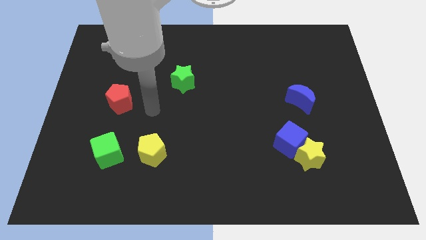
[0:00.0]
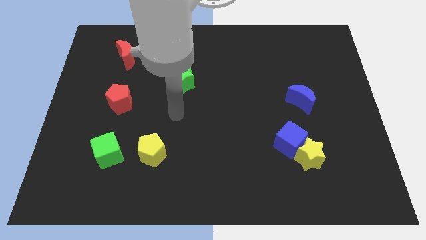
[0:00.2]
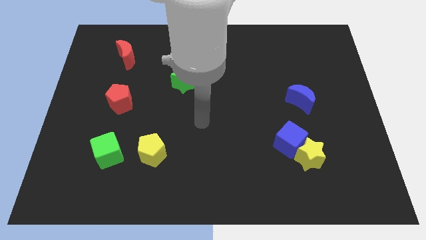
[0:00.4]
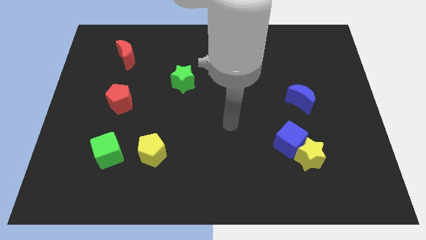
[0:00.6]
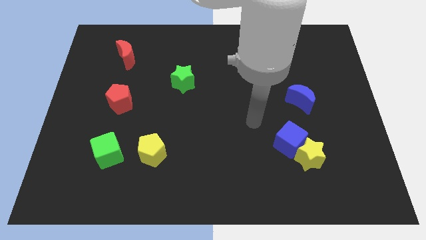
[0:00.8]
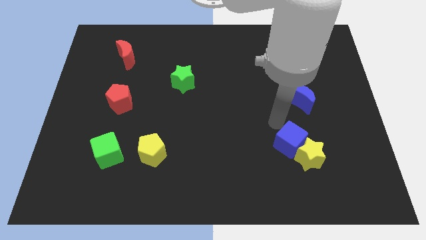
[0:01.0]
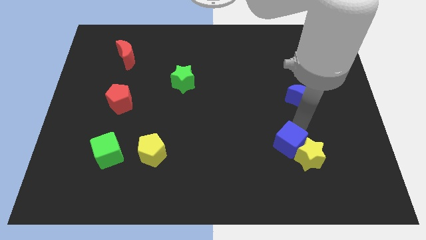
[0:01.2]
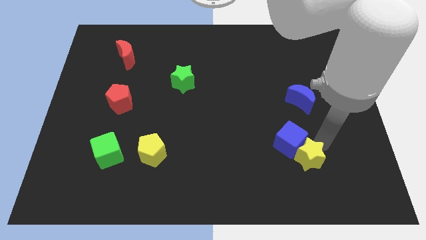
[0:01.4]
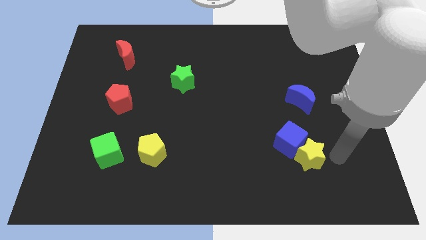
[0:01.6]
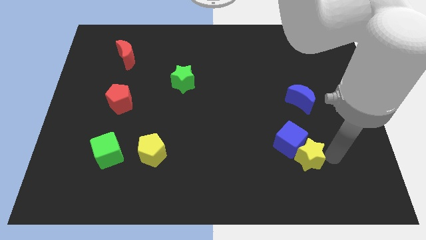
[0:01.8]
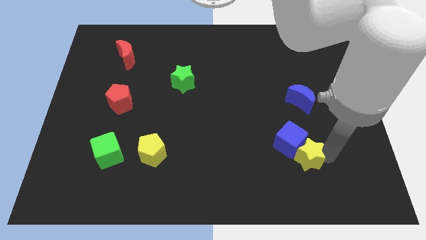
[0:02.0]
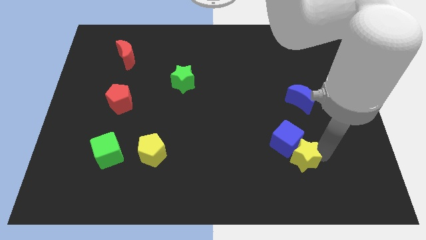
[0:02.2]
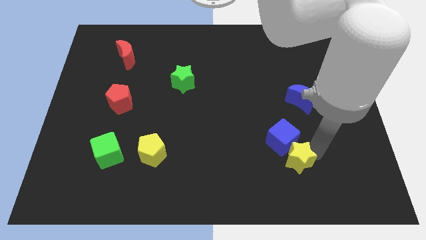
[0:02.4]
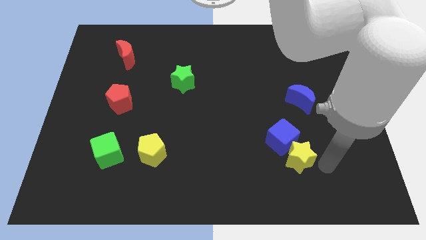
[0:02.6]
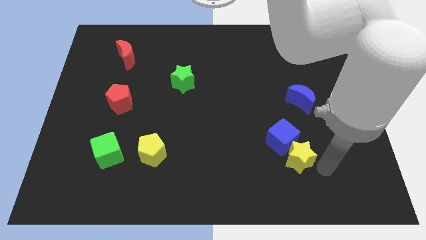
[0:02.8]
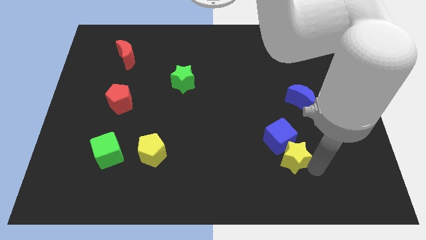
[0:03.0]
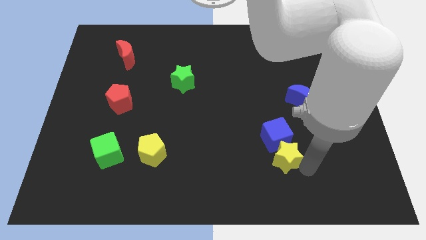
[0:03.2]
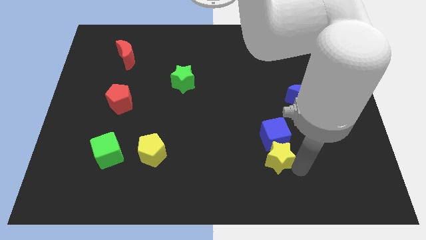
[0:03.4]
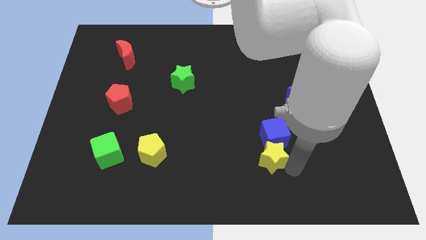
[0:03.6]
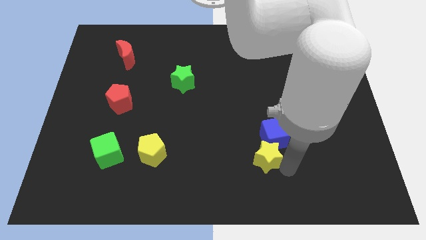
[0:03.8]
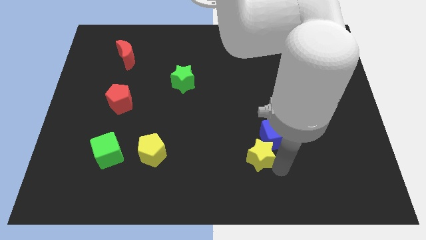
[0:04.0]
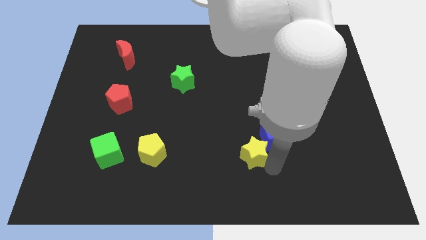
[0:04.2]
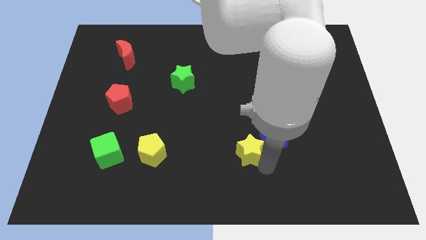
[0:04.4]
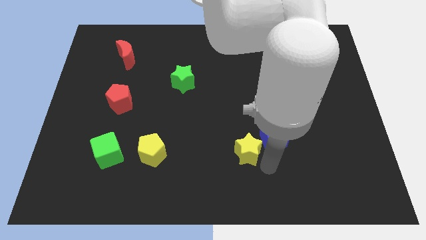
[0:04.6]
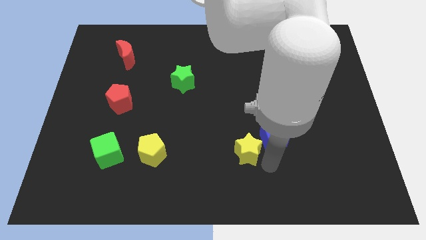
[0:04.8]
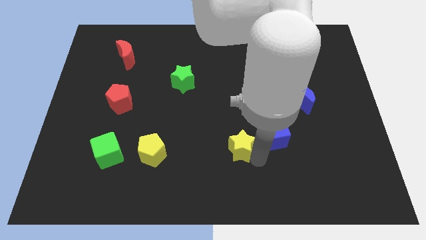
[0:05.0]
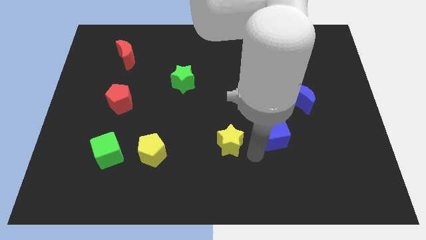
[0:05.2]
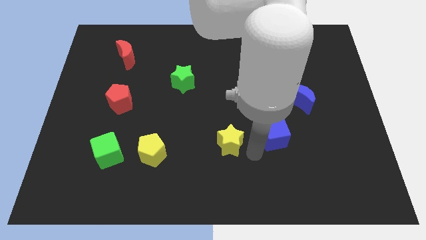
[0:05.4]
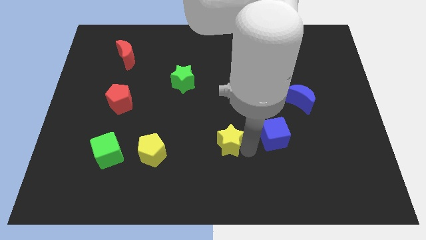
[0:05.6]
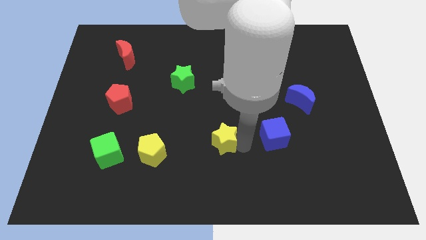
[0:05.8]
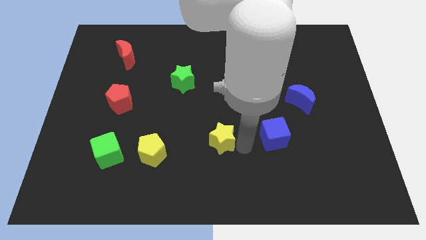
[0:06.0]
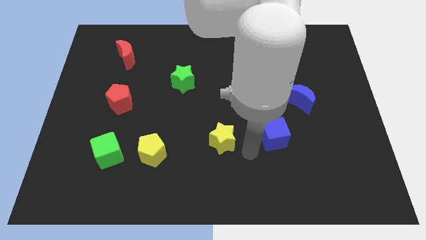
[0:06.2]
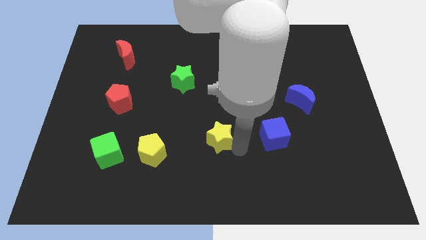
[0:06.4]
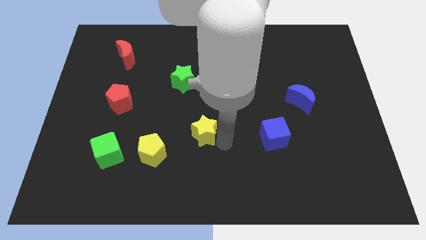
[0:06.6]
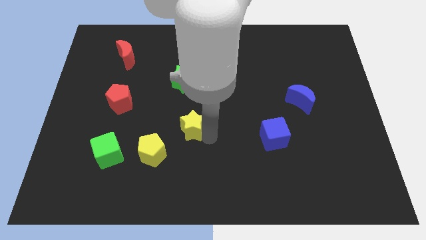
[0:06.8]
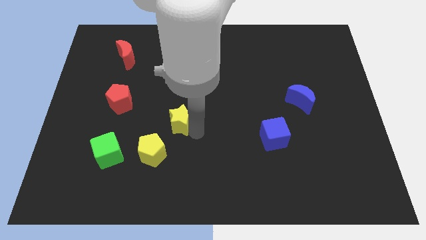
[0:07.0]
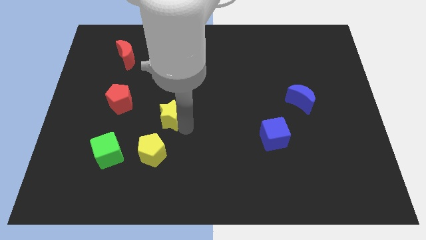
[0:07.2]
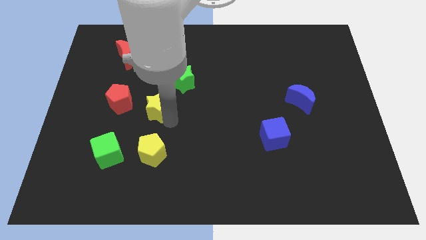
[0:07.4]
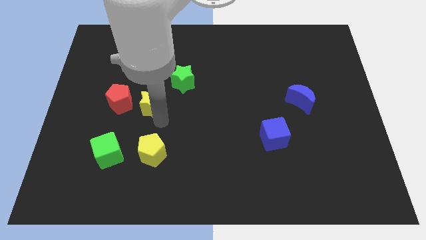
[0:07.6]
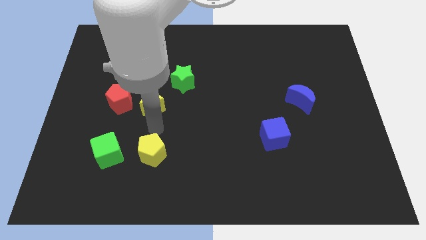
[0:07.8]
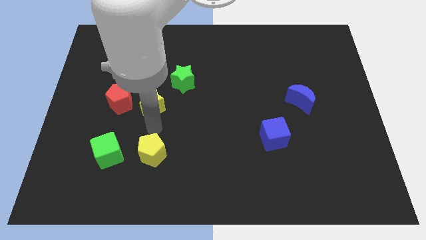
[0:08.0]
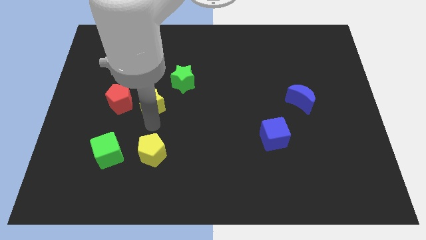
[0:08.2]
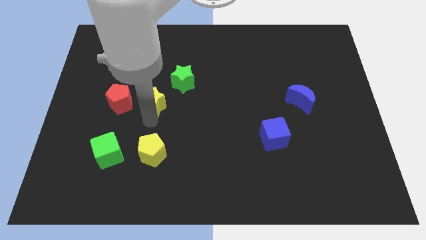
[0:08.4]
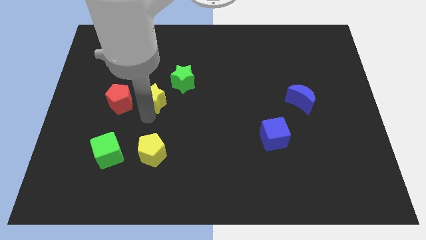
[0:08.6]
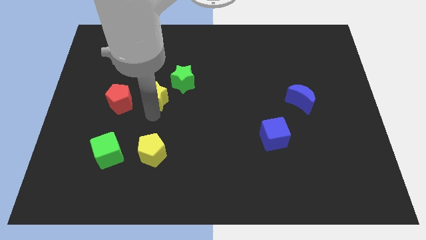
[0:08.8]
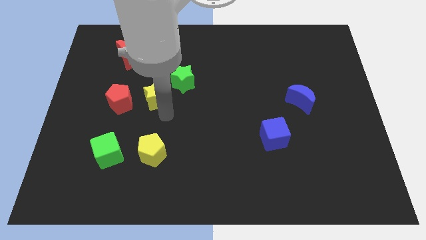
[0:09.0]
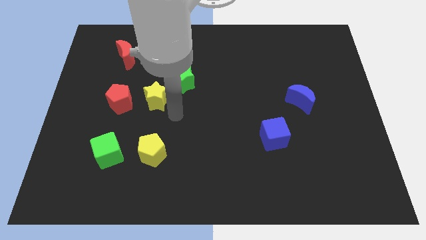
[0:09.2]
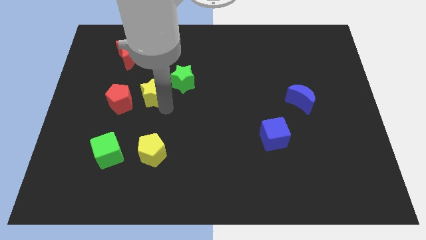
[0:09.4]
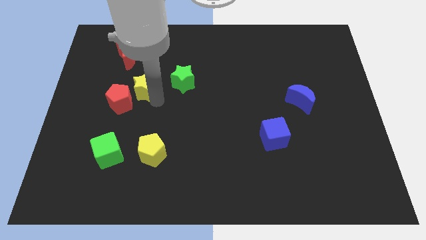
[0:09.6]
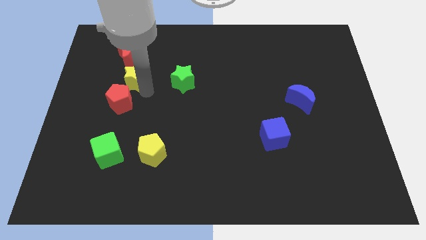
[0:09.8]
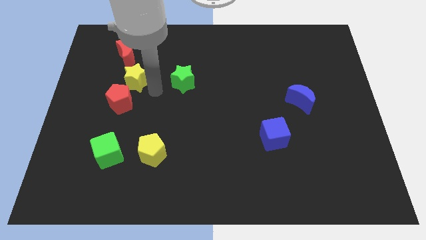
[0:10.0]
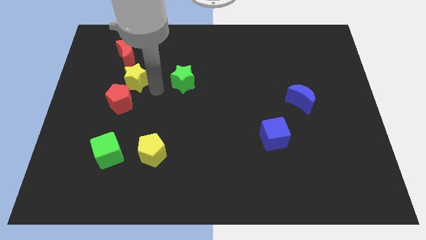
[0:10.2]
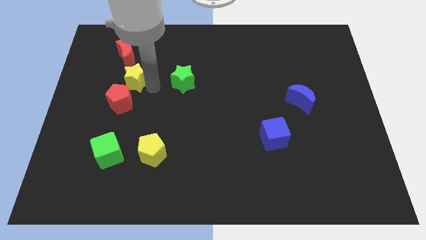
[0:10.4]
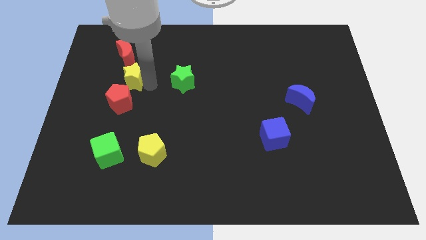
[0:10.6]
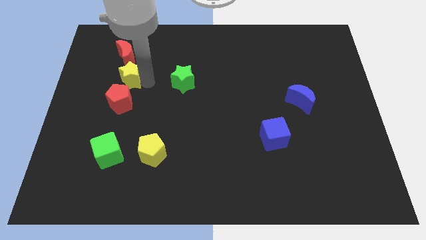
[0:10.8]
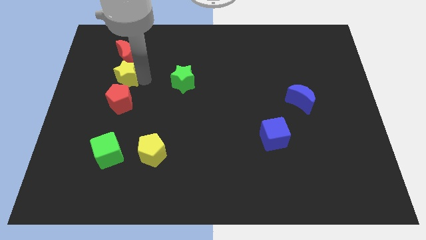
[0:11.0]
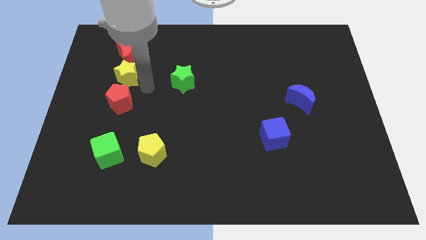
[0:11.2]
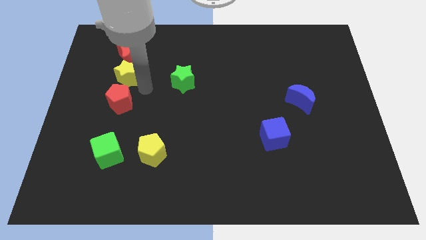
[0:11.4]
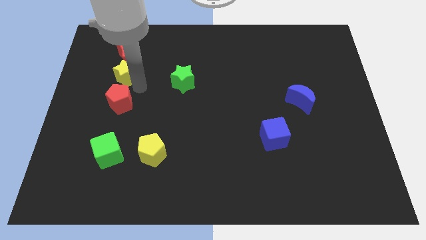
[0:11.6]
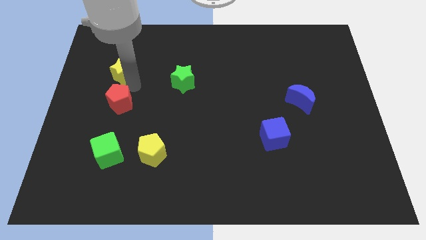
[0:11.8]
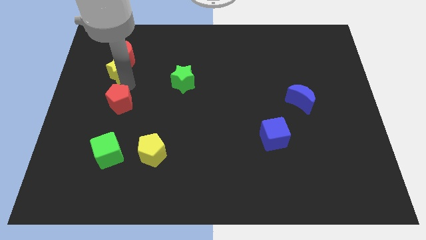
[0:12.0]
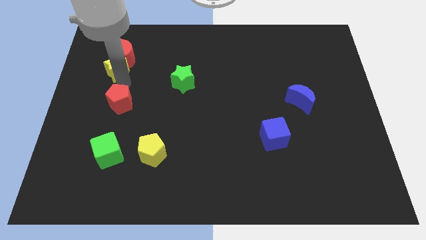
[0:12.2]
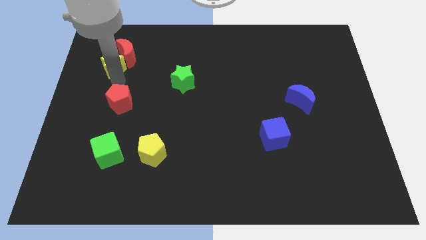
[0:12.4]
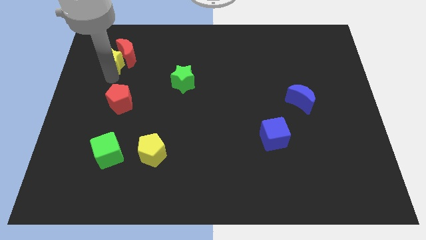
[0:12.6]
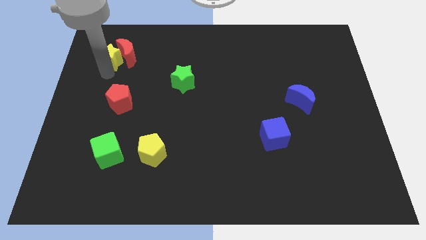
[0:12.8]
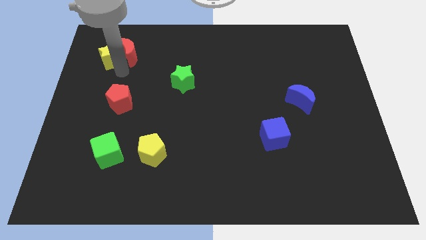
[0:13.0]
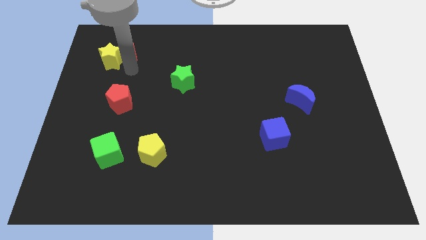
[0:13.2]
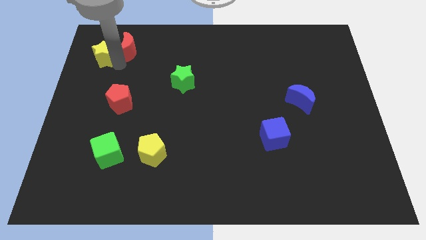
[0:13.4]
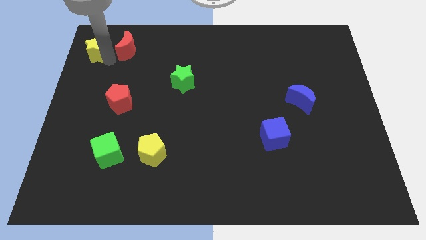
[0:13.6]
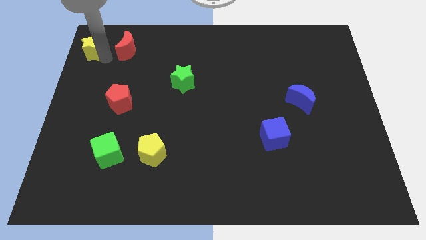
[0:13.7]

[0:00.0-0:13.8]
put the yellow star to the top left

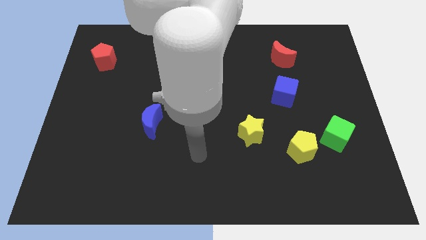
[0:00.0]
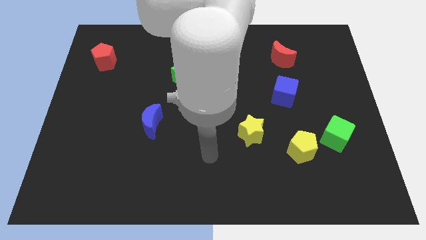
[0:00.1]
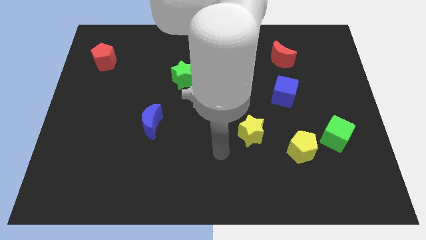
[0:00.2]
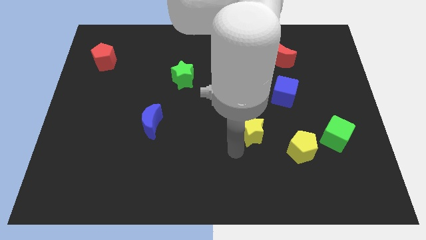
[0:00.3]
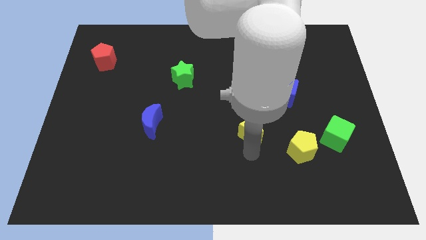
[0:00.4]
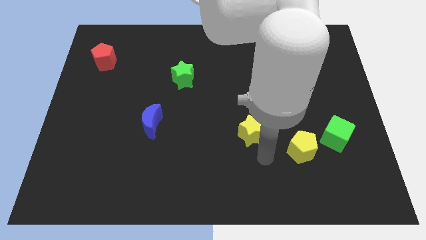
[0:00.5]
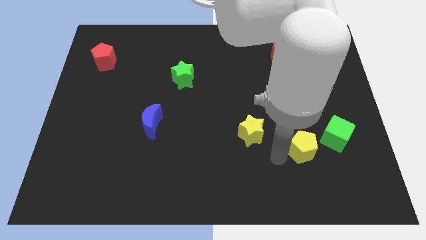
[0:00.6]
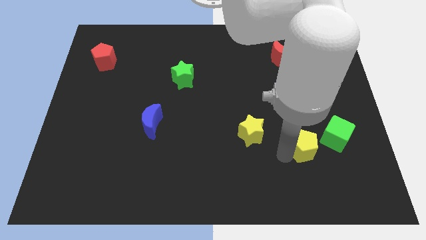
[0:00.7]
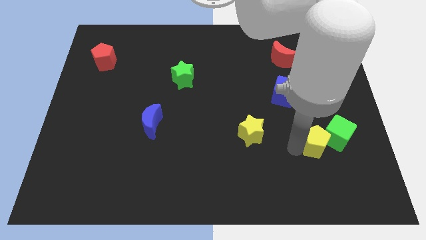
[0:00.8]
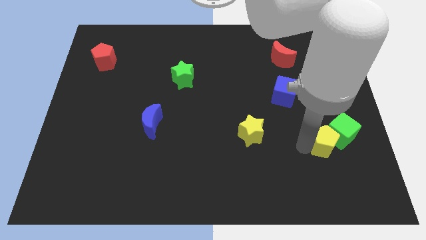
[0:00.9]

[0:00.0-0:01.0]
move the green cube to the center right
